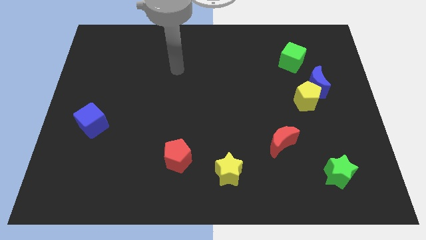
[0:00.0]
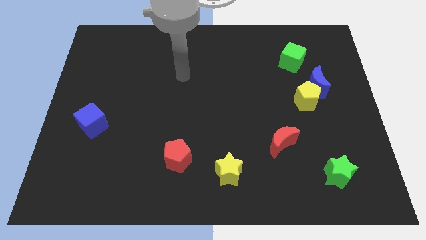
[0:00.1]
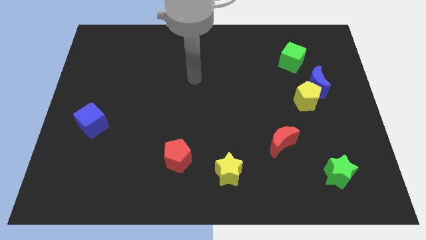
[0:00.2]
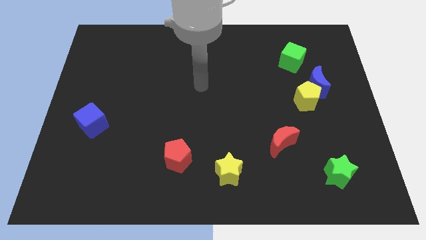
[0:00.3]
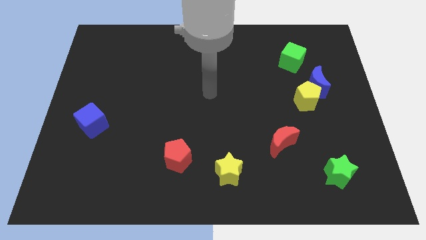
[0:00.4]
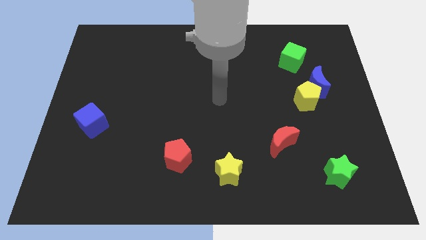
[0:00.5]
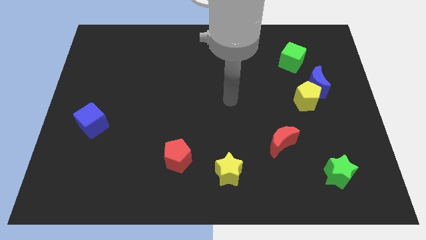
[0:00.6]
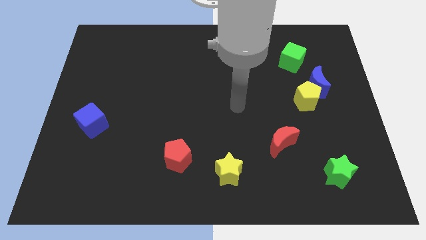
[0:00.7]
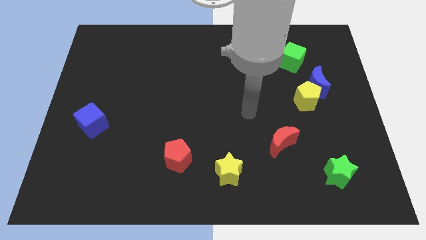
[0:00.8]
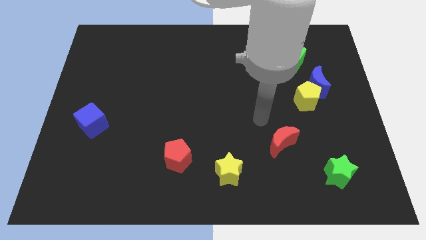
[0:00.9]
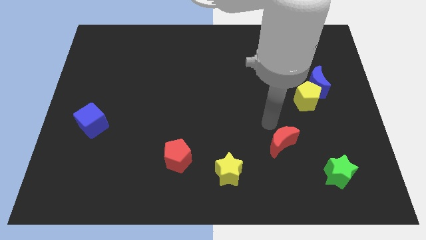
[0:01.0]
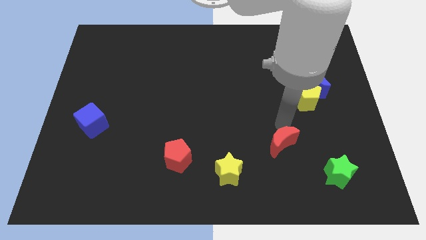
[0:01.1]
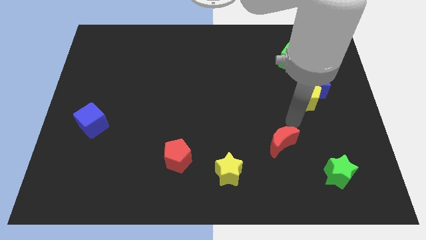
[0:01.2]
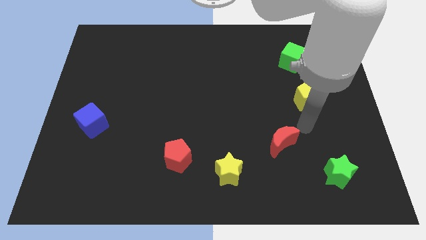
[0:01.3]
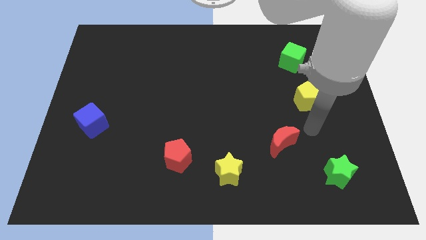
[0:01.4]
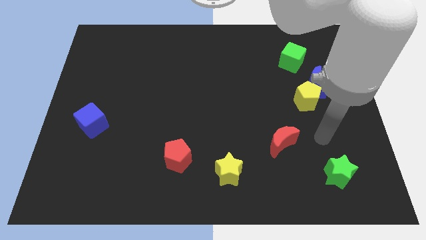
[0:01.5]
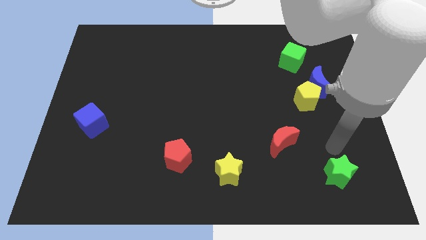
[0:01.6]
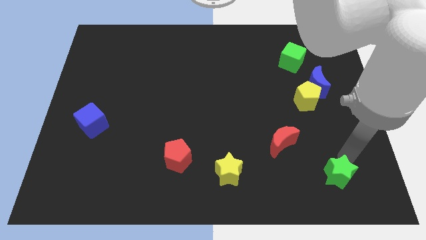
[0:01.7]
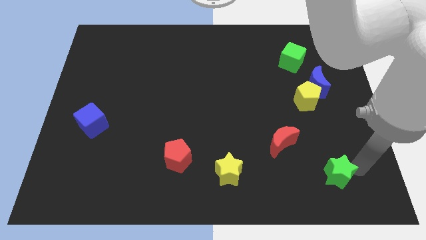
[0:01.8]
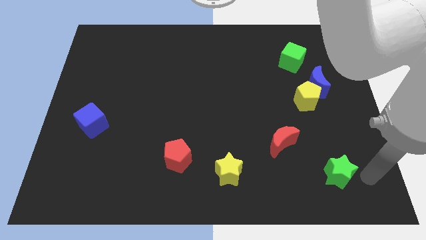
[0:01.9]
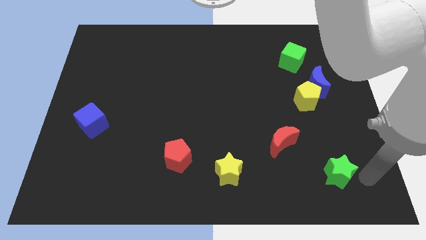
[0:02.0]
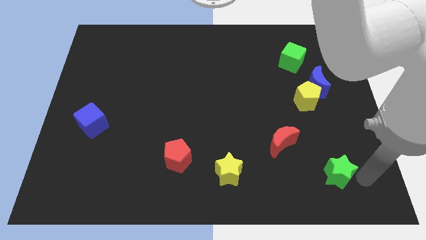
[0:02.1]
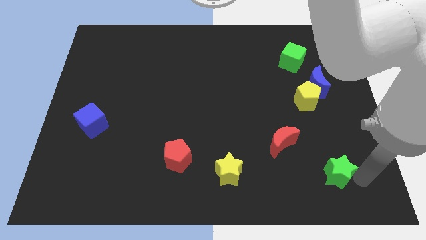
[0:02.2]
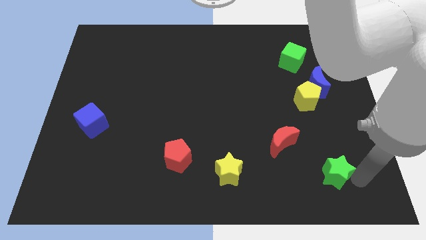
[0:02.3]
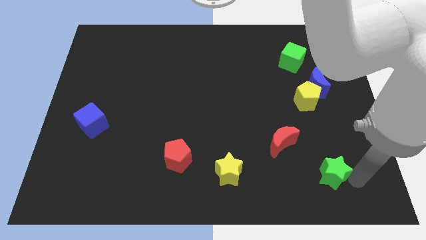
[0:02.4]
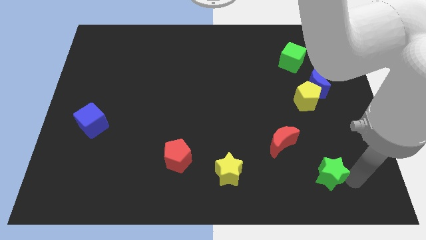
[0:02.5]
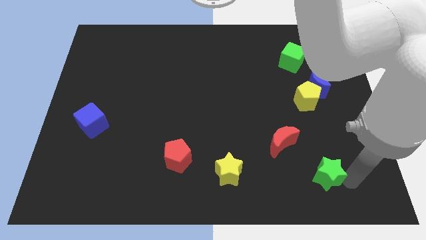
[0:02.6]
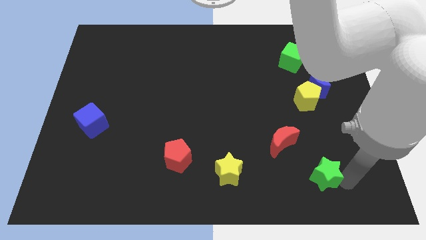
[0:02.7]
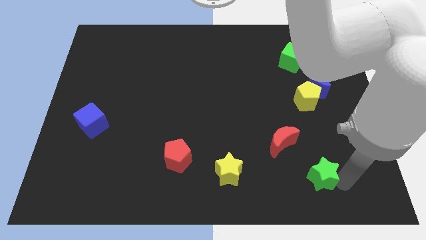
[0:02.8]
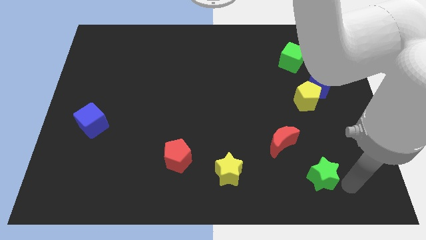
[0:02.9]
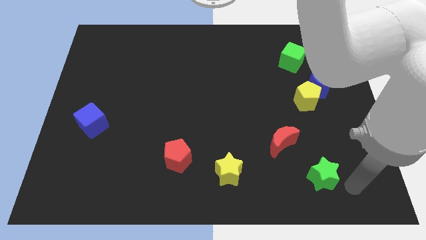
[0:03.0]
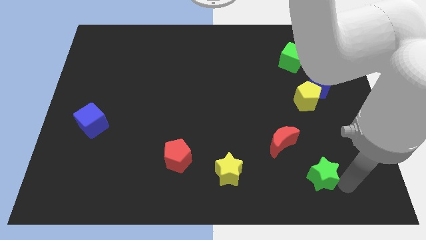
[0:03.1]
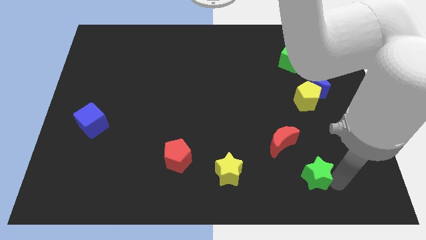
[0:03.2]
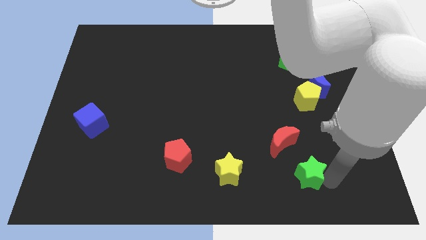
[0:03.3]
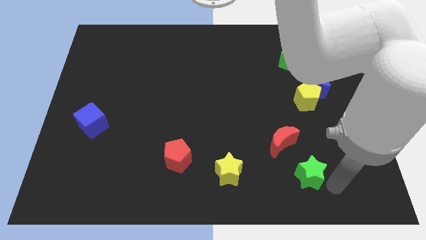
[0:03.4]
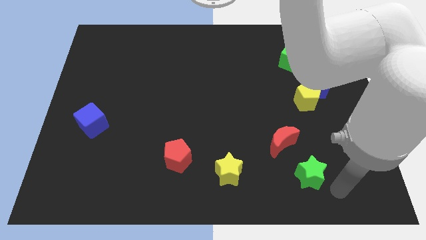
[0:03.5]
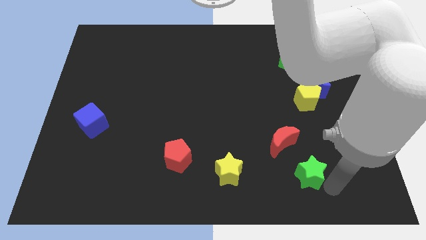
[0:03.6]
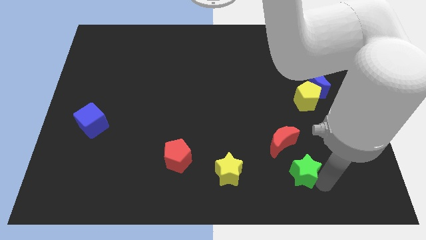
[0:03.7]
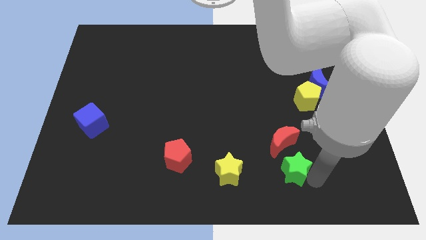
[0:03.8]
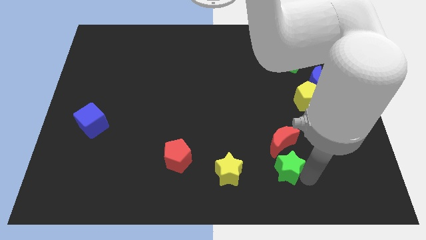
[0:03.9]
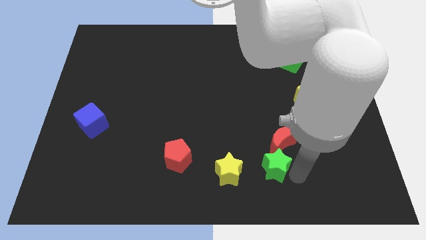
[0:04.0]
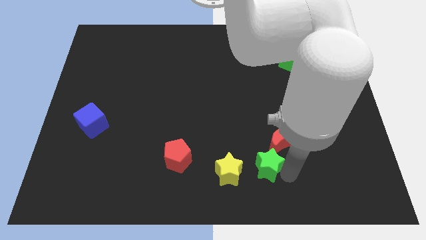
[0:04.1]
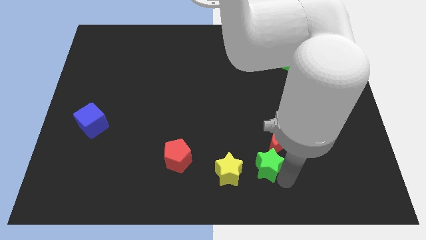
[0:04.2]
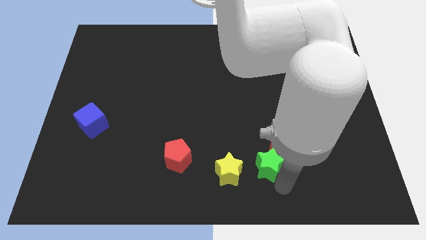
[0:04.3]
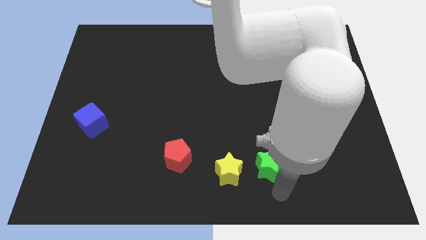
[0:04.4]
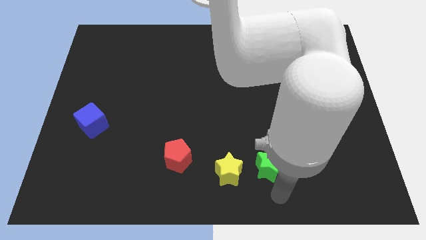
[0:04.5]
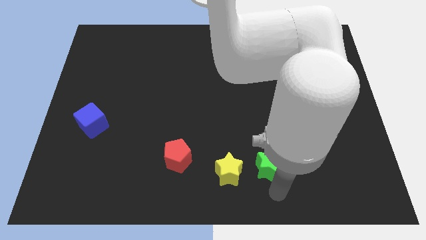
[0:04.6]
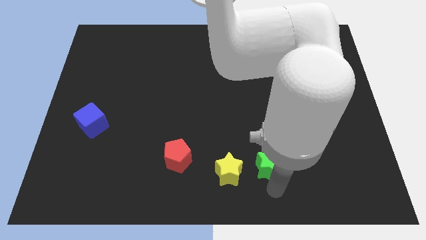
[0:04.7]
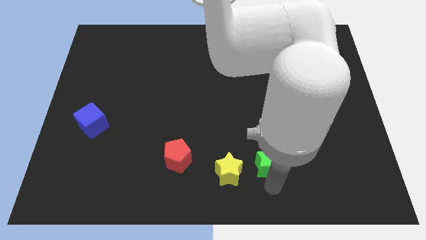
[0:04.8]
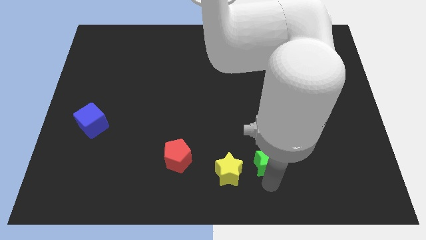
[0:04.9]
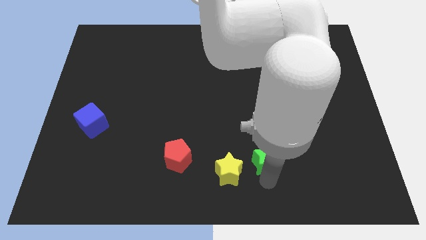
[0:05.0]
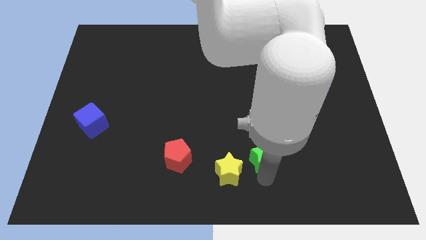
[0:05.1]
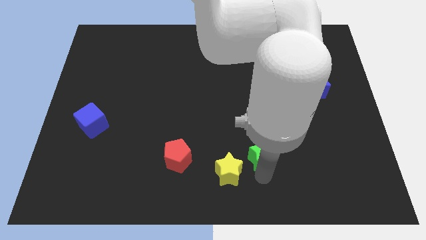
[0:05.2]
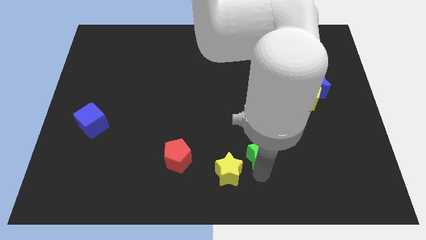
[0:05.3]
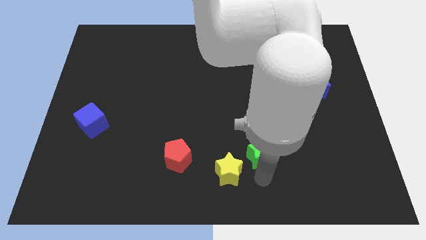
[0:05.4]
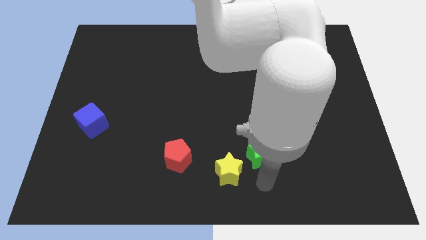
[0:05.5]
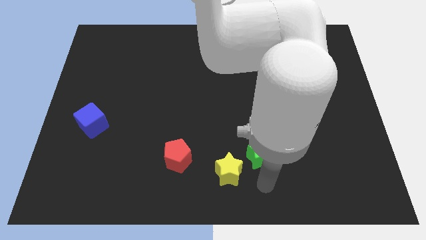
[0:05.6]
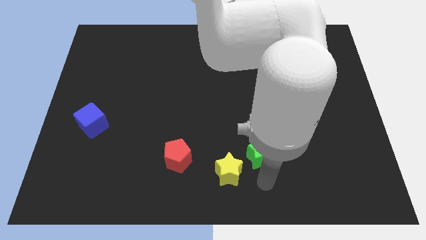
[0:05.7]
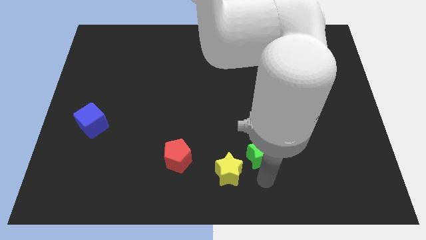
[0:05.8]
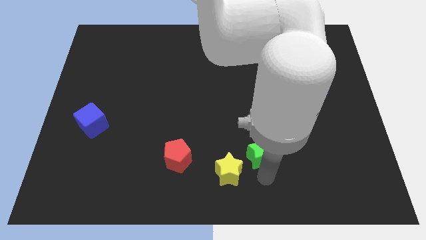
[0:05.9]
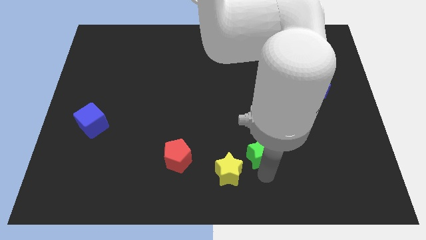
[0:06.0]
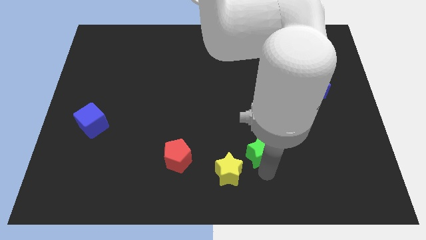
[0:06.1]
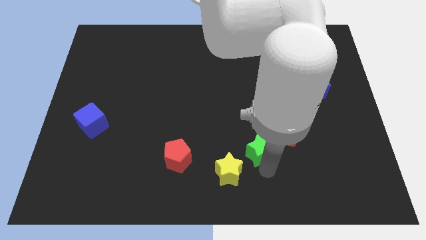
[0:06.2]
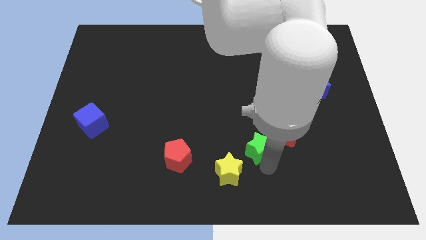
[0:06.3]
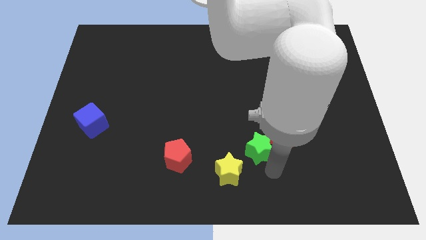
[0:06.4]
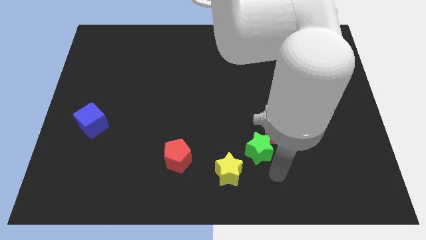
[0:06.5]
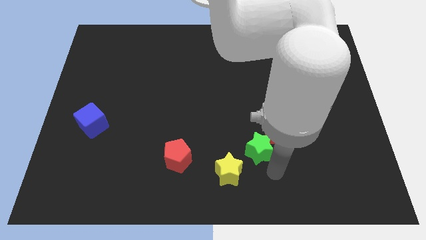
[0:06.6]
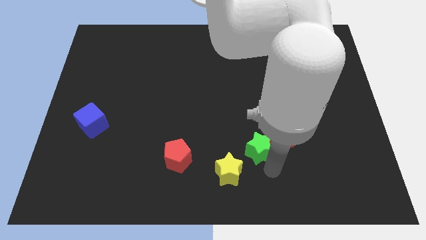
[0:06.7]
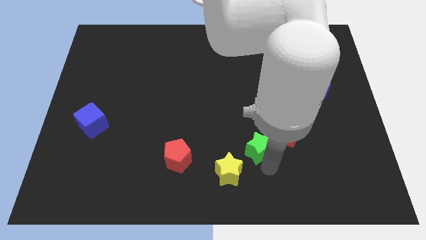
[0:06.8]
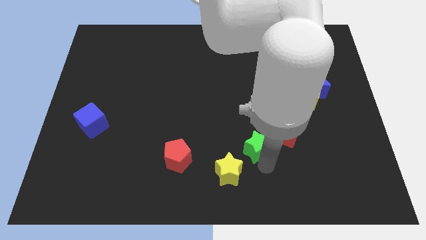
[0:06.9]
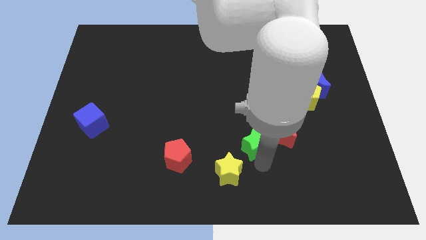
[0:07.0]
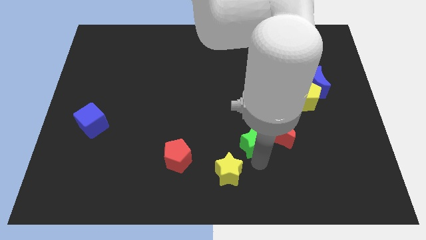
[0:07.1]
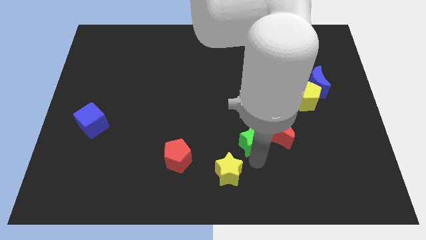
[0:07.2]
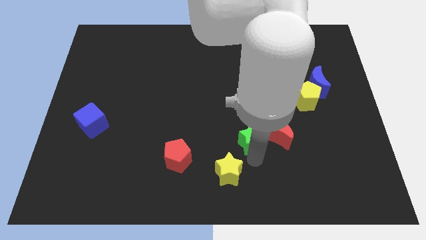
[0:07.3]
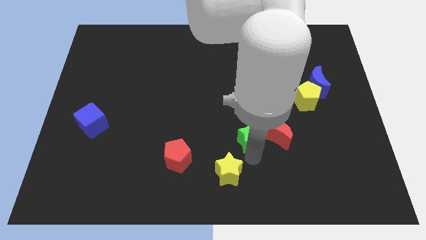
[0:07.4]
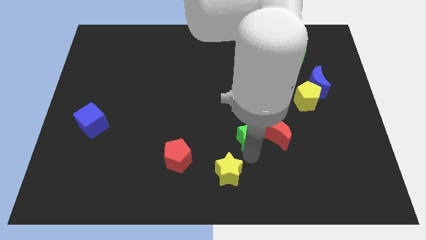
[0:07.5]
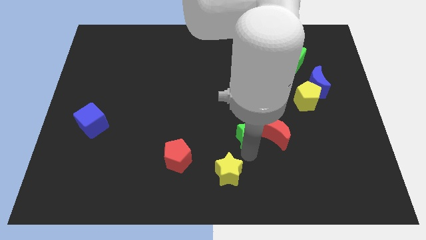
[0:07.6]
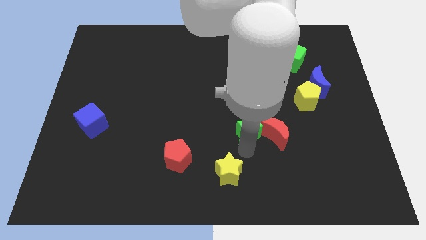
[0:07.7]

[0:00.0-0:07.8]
push the green star to the center of the board
